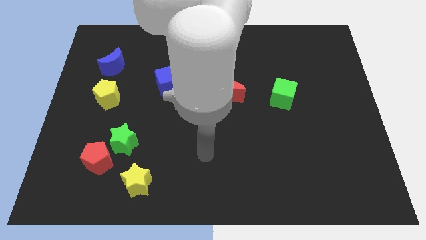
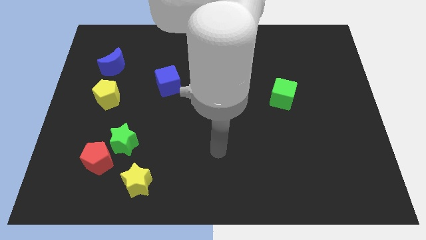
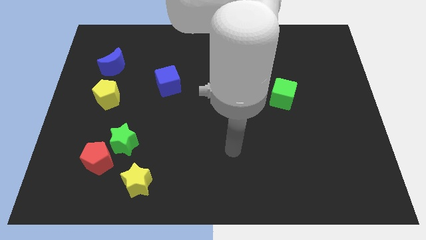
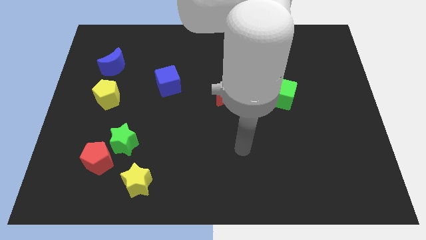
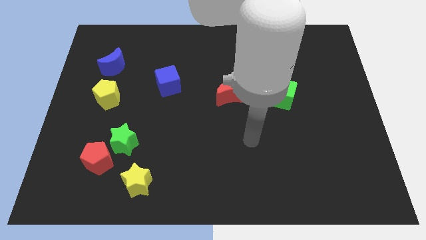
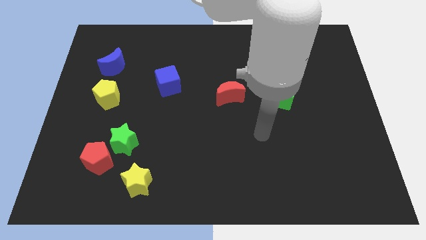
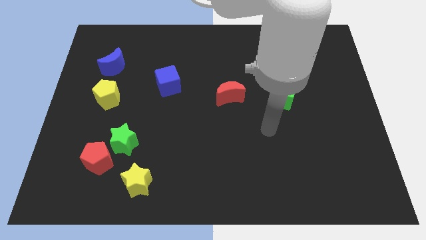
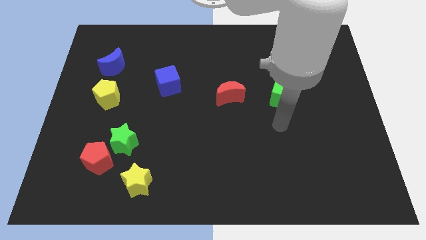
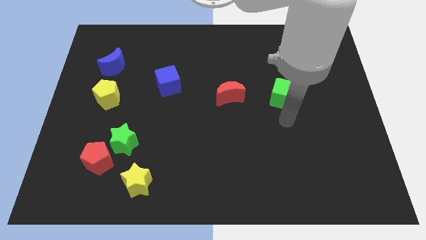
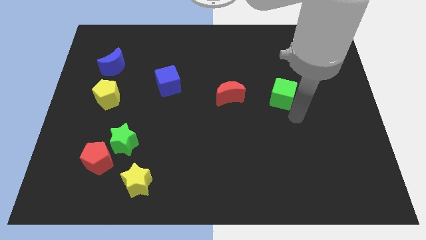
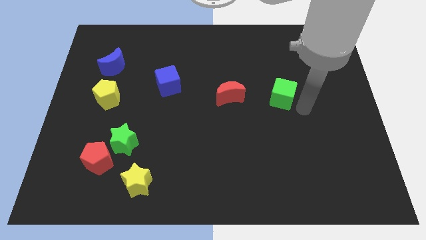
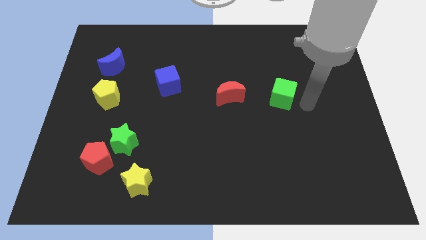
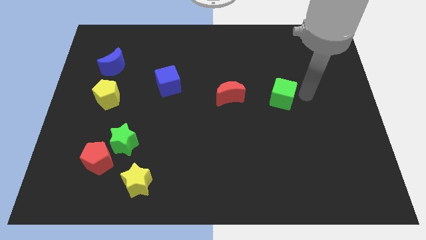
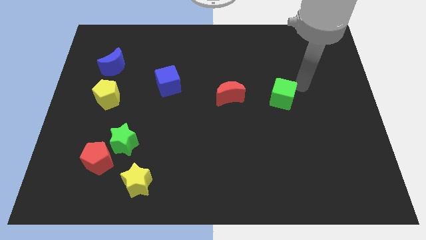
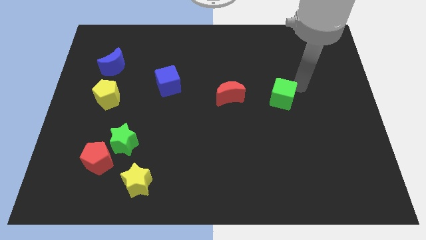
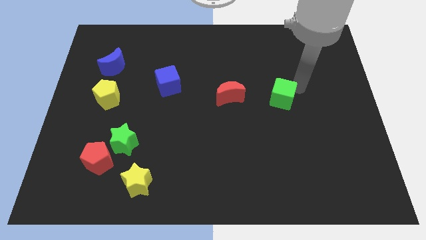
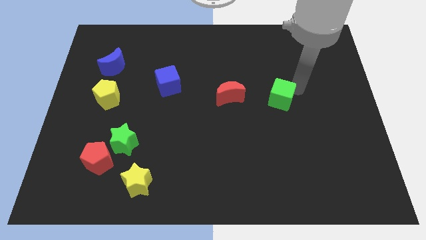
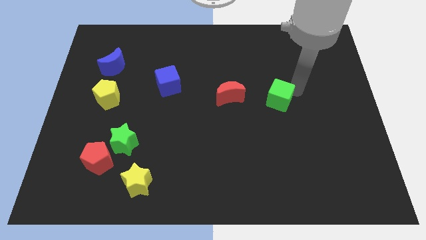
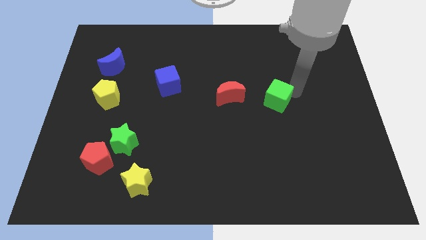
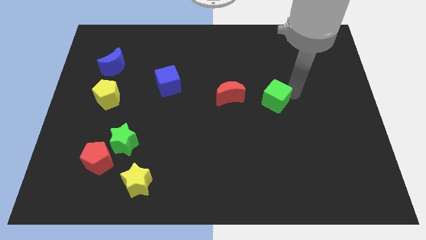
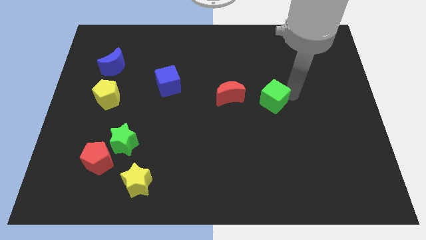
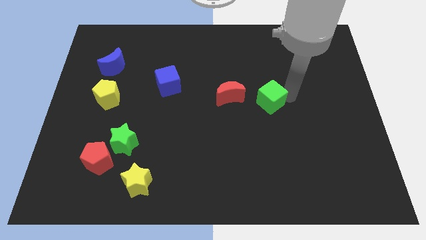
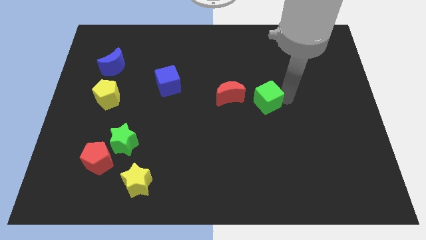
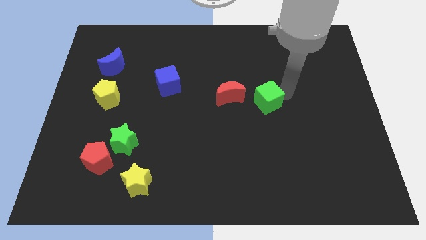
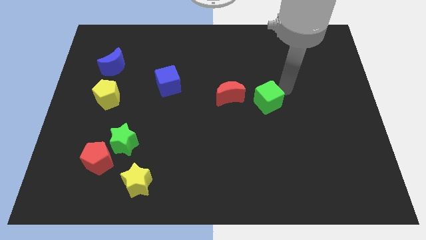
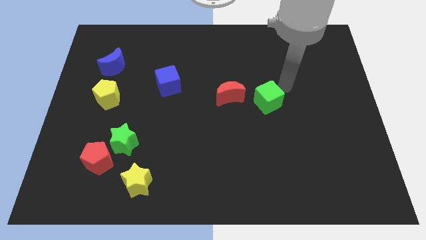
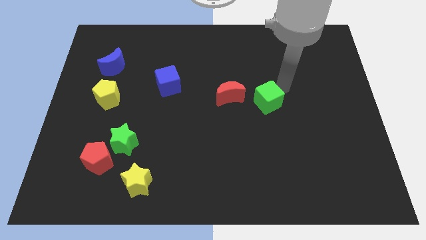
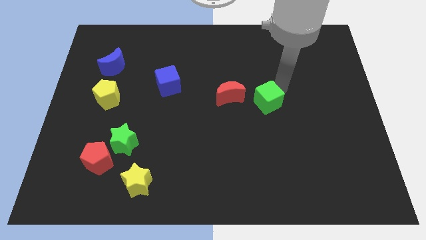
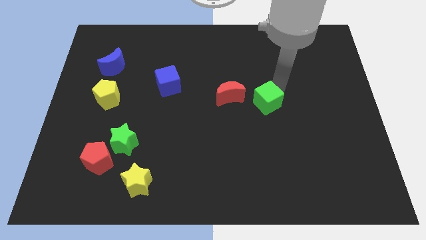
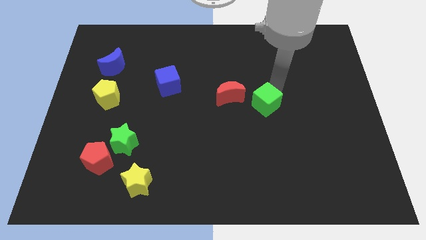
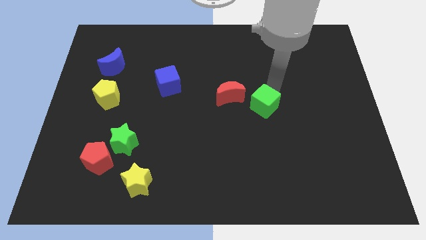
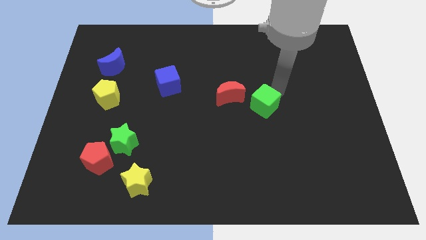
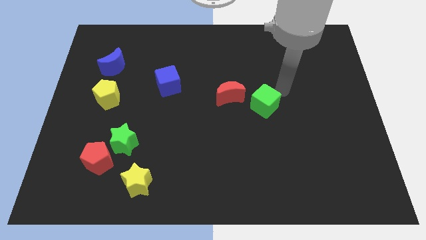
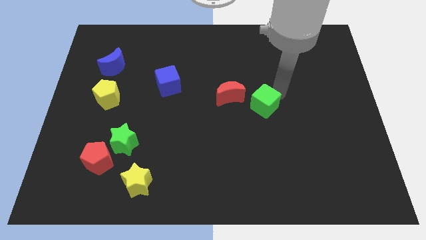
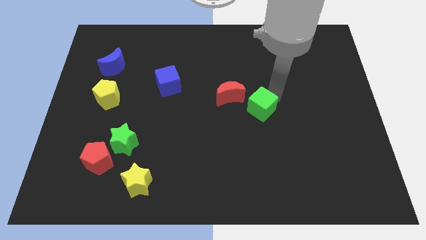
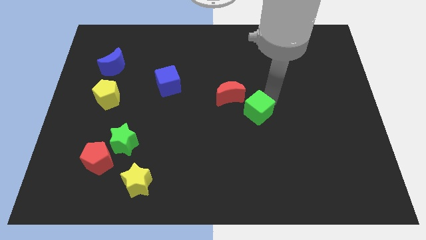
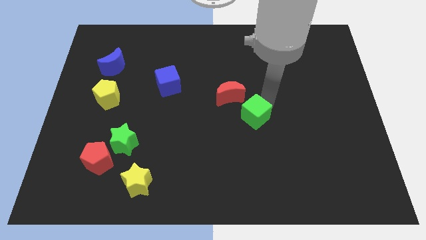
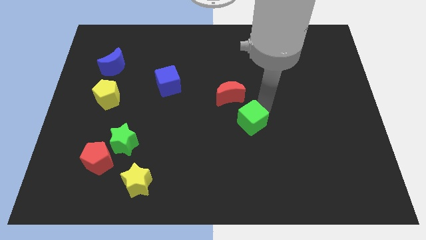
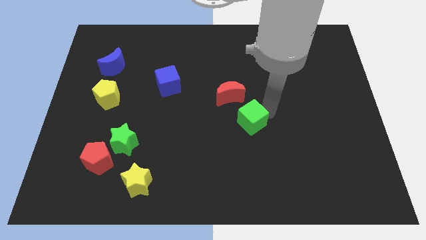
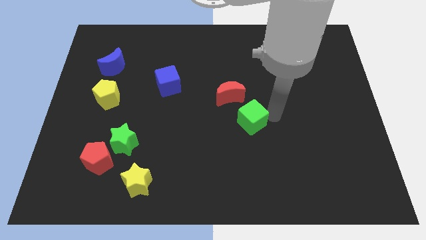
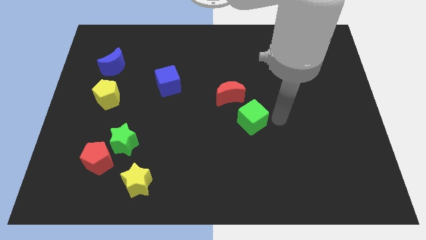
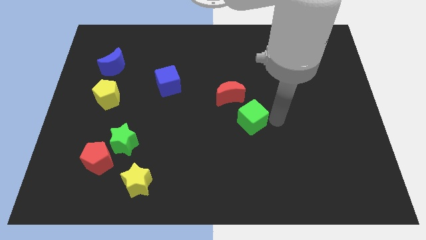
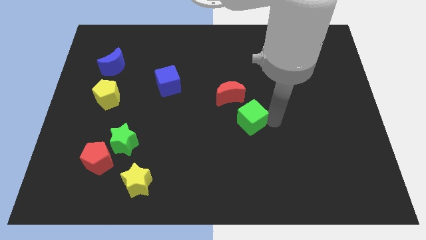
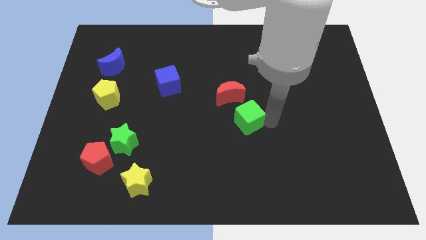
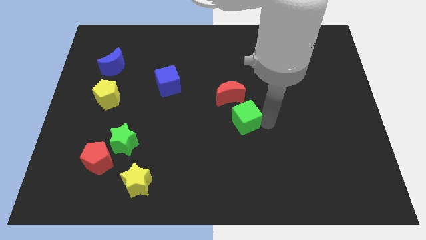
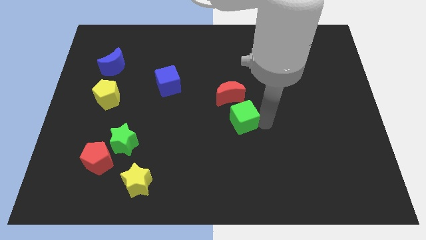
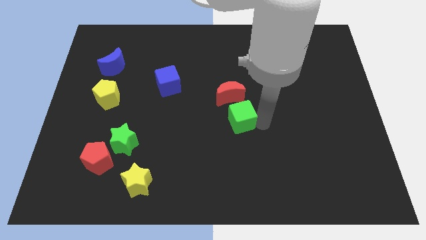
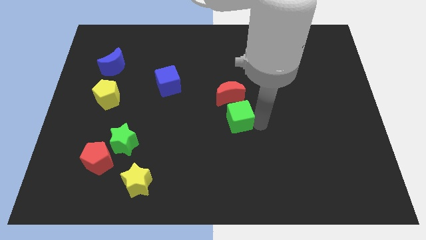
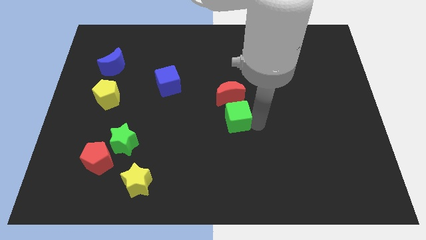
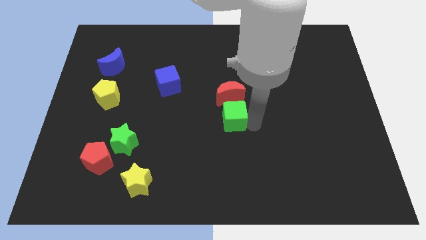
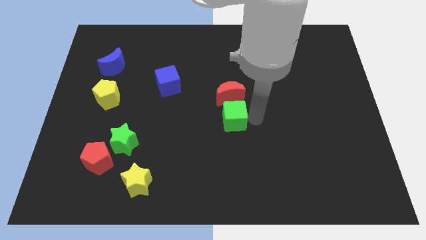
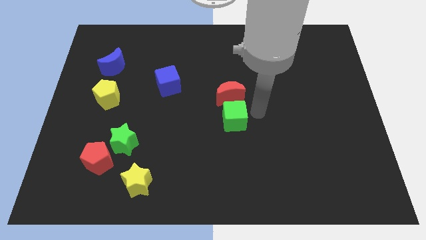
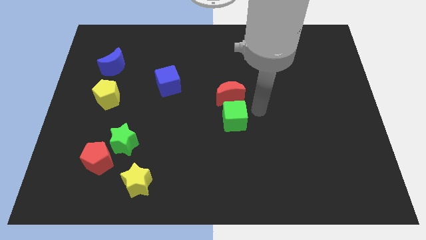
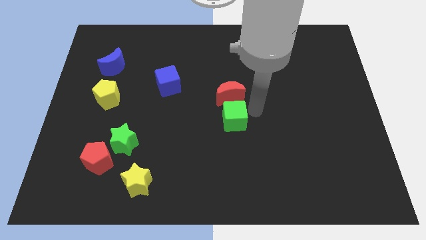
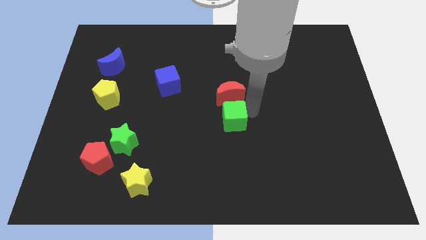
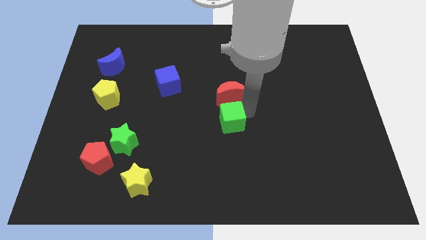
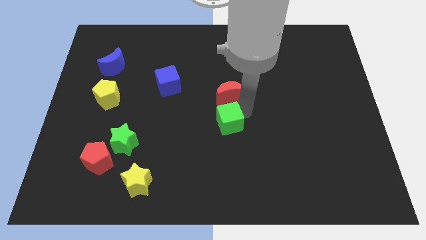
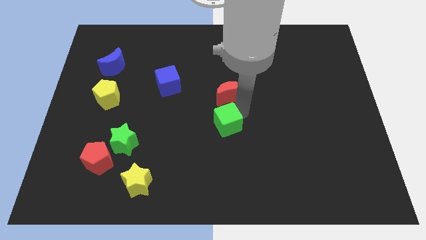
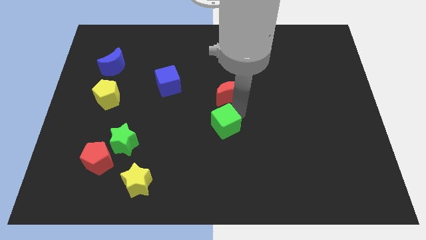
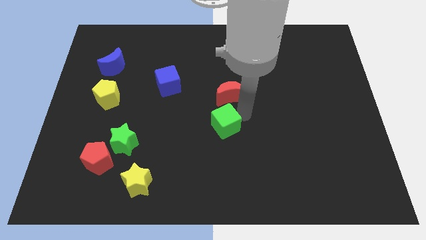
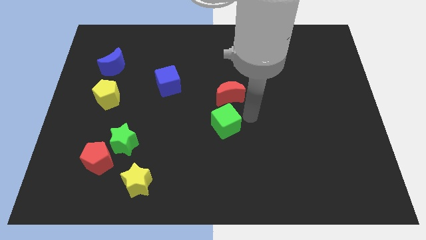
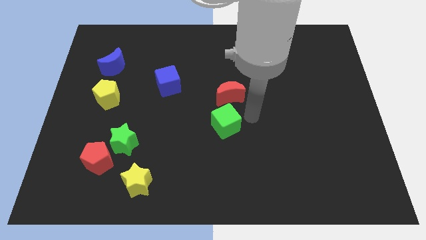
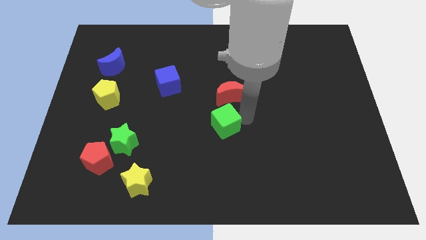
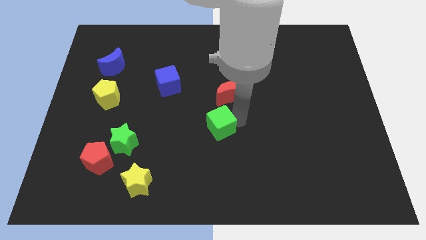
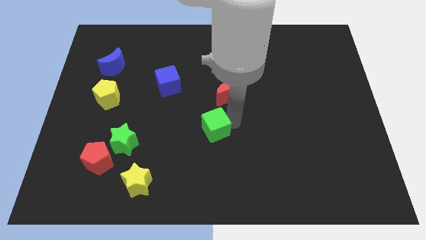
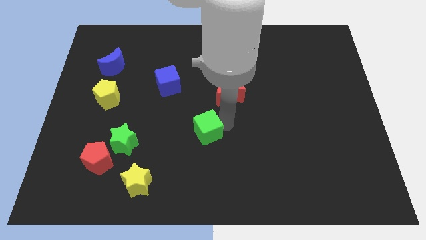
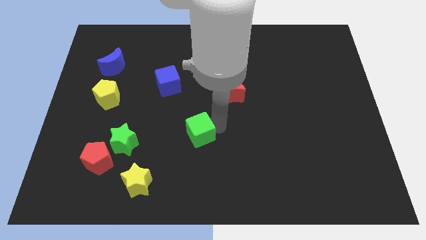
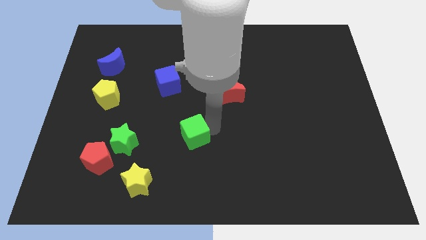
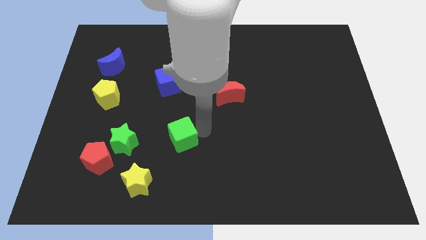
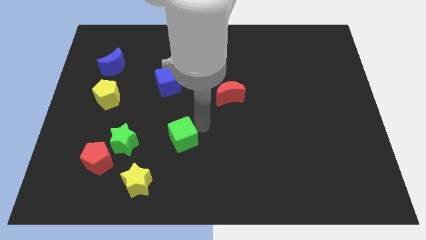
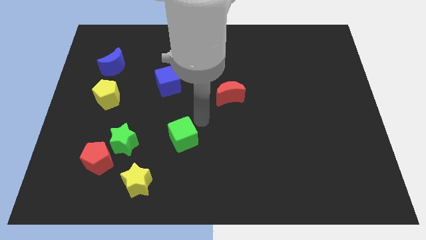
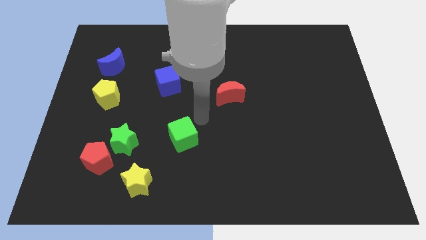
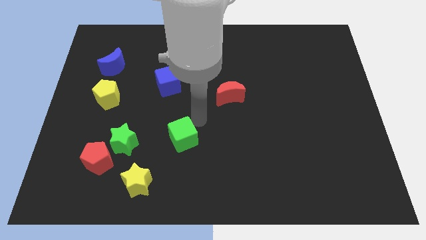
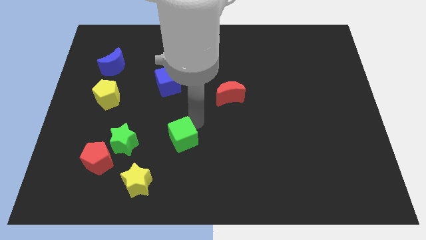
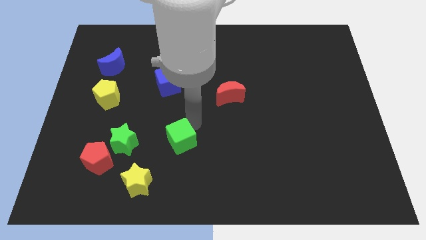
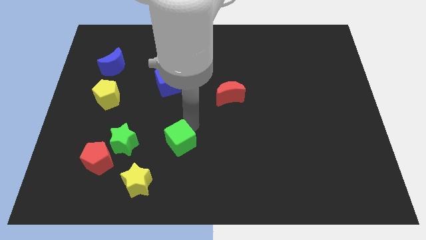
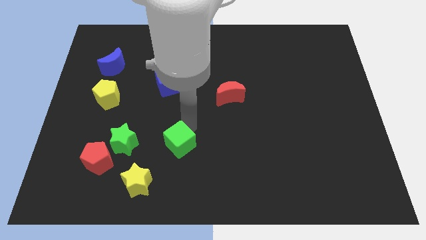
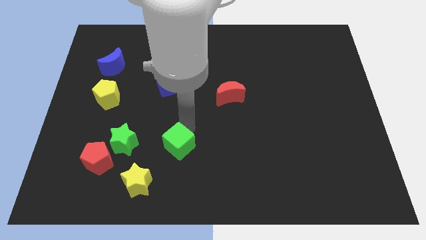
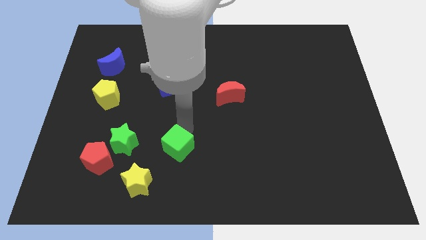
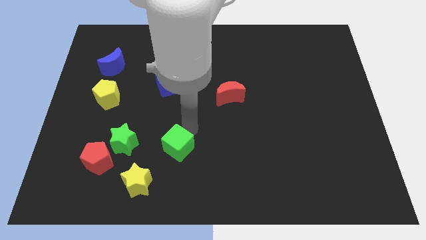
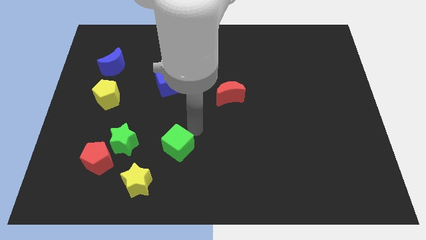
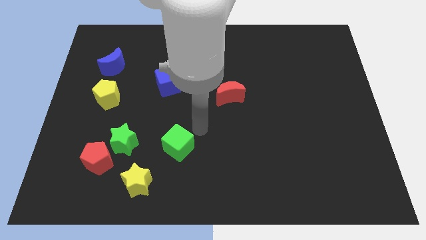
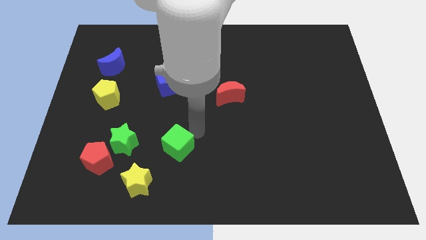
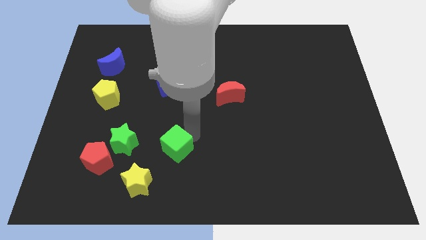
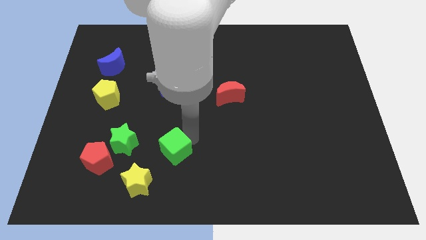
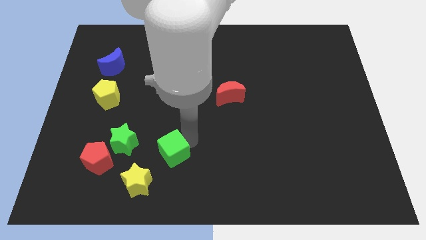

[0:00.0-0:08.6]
slide the green cube right of the red pentagon
